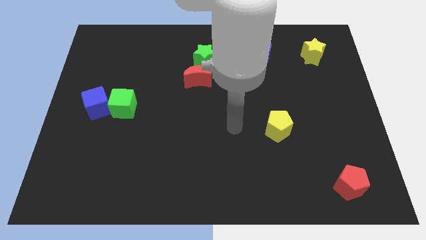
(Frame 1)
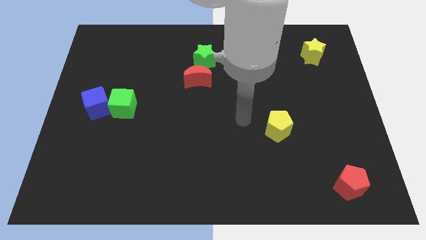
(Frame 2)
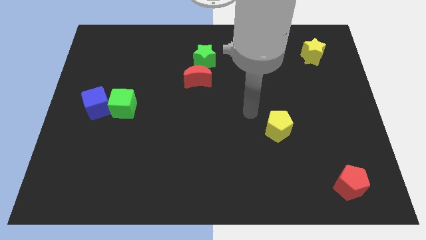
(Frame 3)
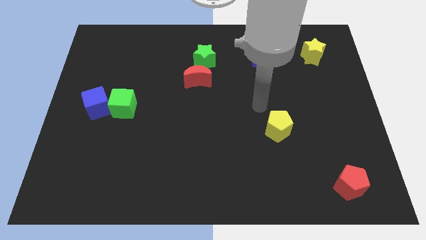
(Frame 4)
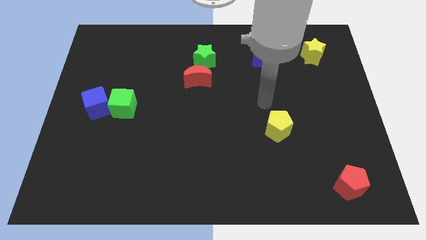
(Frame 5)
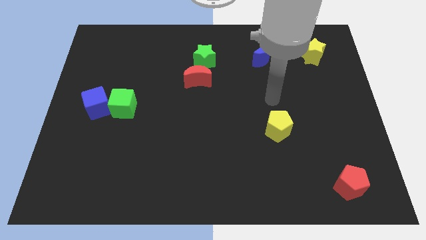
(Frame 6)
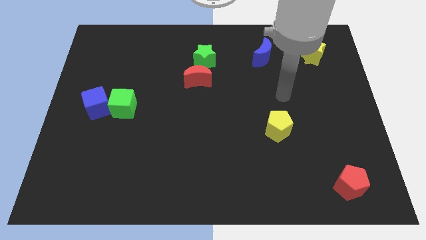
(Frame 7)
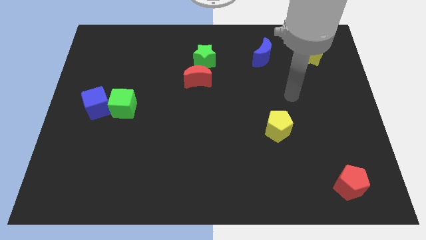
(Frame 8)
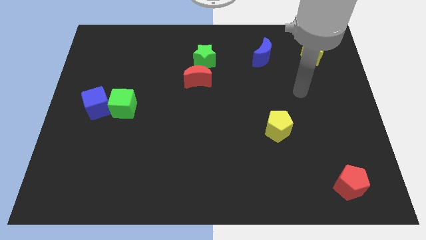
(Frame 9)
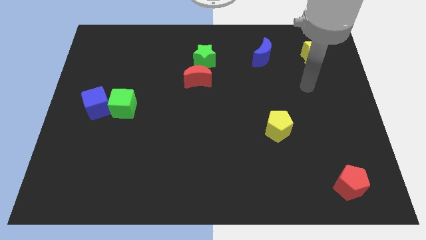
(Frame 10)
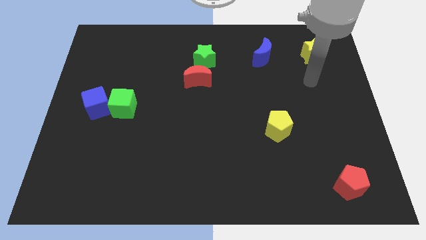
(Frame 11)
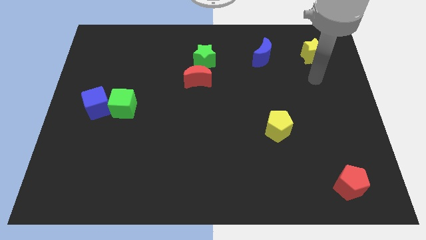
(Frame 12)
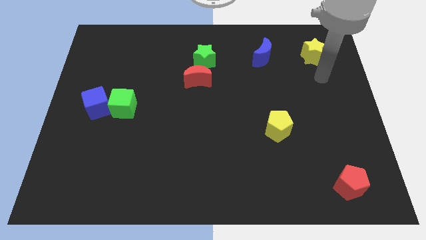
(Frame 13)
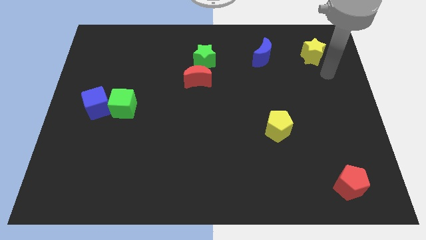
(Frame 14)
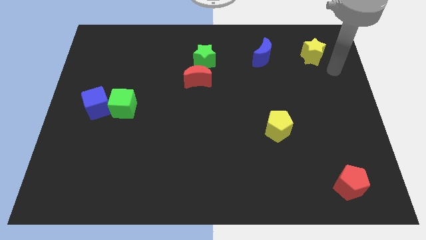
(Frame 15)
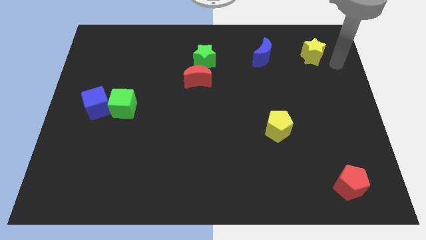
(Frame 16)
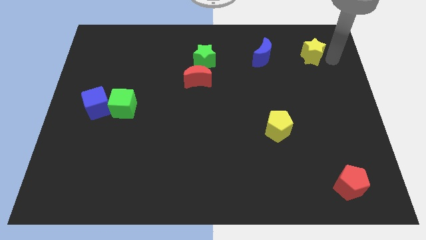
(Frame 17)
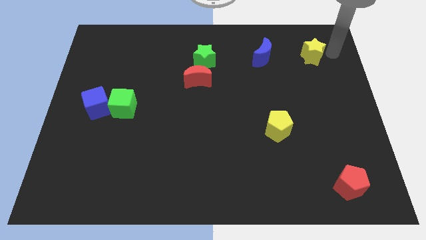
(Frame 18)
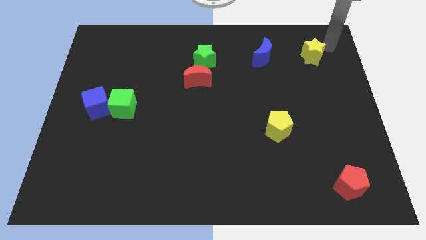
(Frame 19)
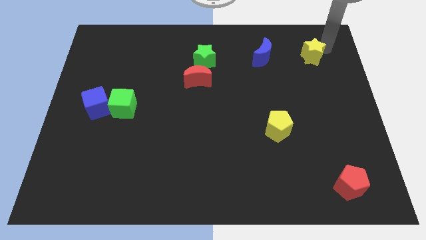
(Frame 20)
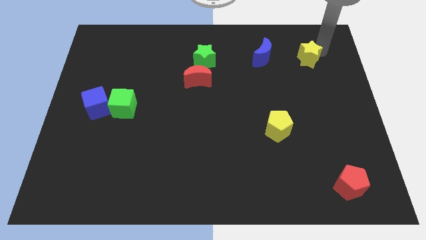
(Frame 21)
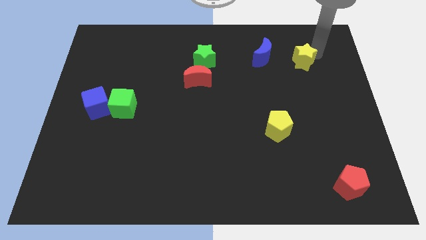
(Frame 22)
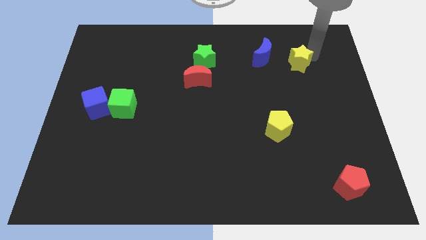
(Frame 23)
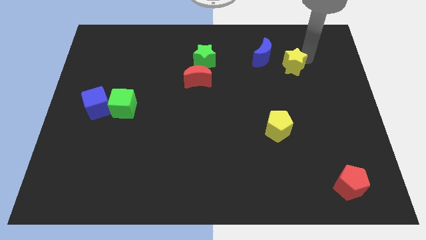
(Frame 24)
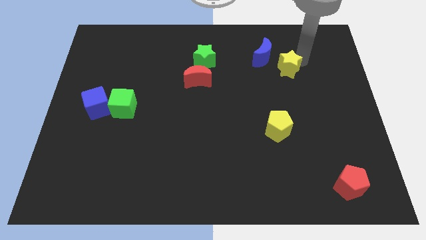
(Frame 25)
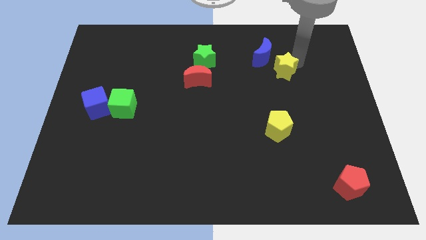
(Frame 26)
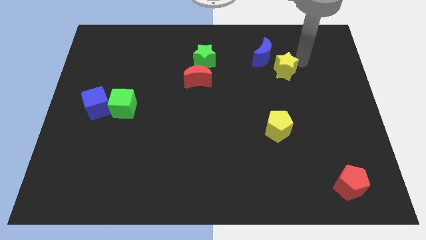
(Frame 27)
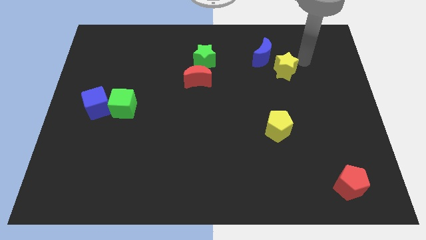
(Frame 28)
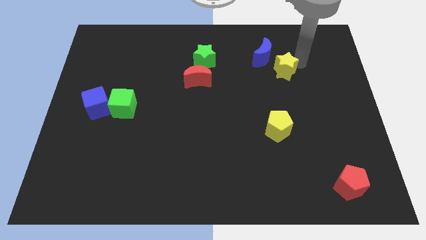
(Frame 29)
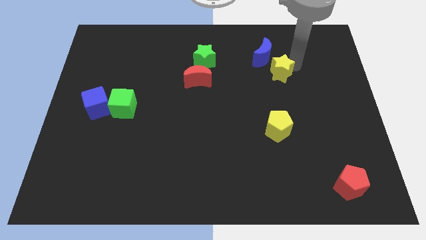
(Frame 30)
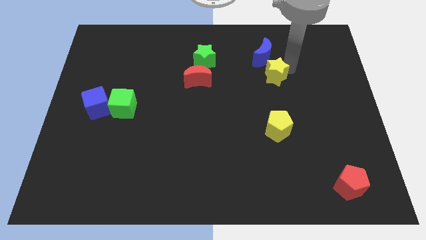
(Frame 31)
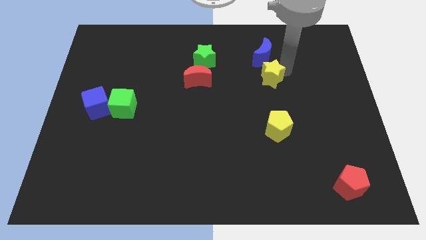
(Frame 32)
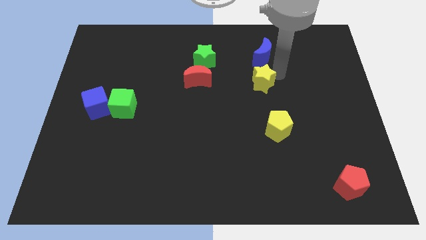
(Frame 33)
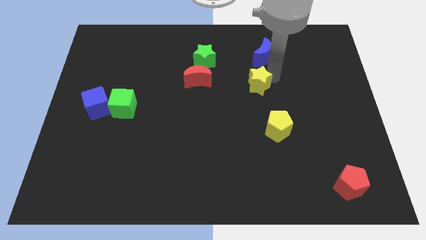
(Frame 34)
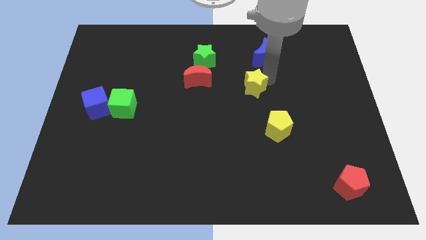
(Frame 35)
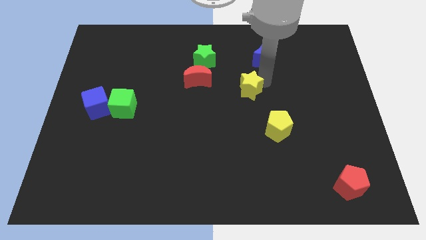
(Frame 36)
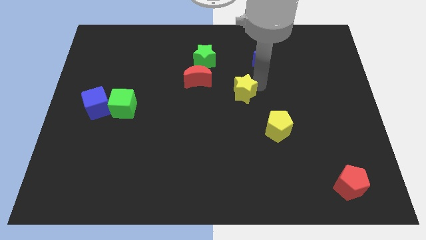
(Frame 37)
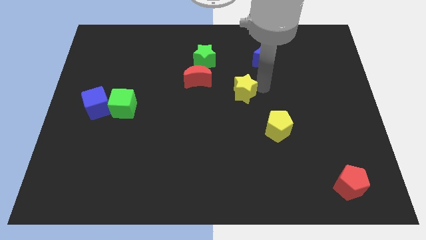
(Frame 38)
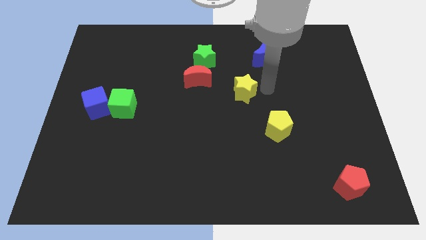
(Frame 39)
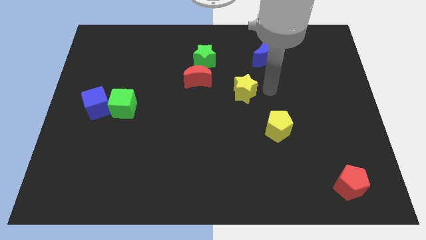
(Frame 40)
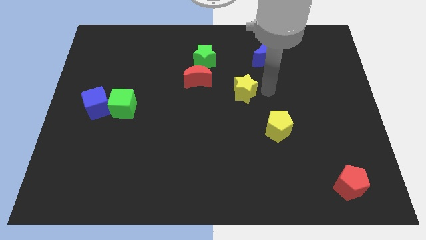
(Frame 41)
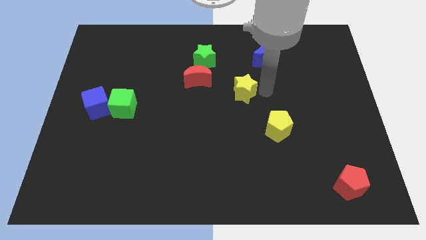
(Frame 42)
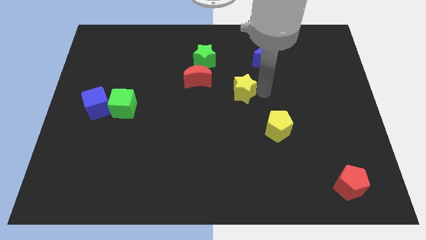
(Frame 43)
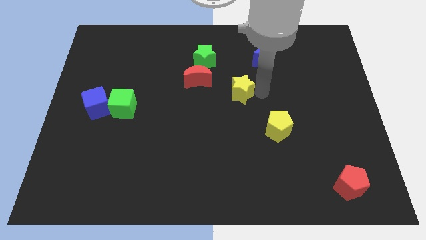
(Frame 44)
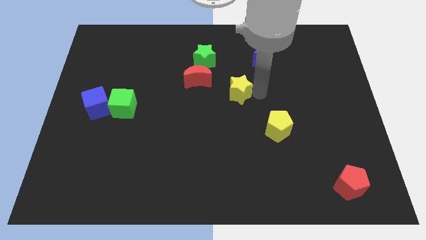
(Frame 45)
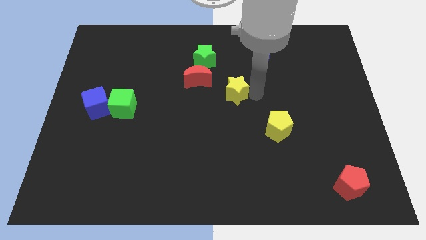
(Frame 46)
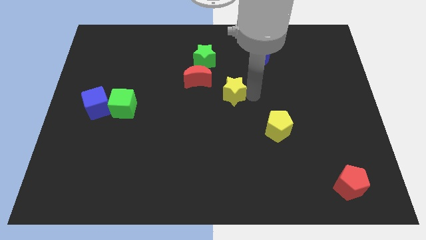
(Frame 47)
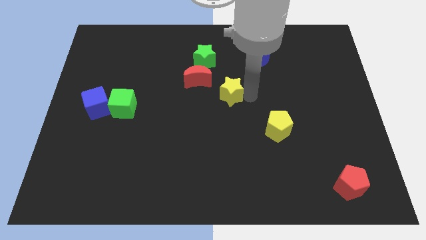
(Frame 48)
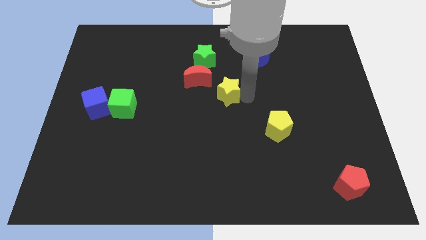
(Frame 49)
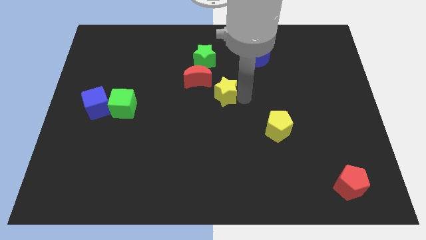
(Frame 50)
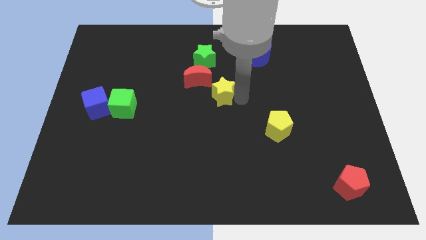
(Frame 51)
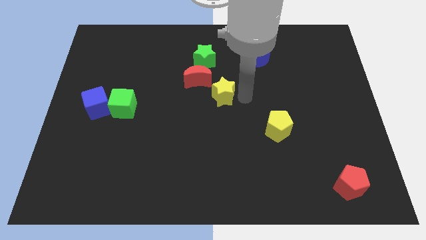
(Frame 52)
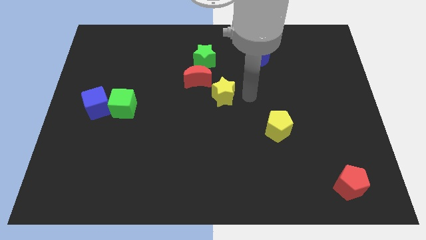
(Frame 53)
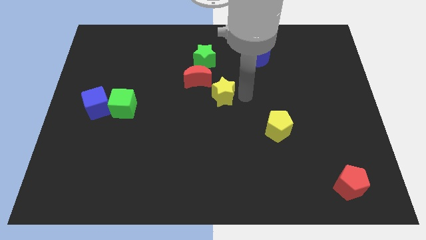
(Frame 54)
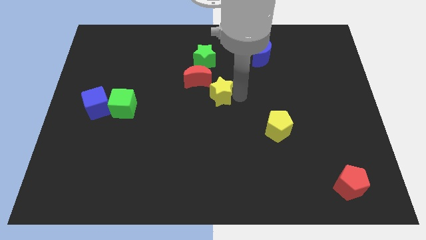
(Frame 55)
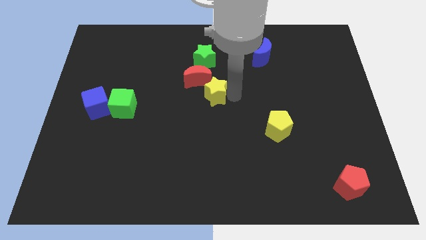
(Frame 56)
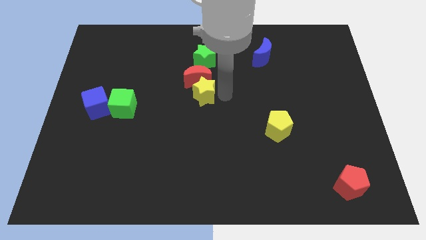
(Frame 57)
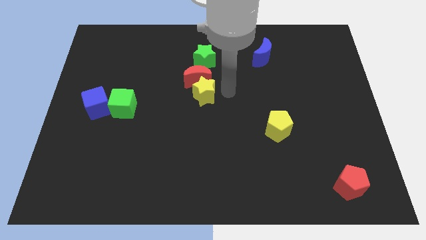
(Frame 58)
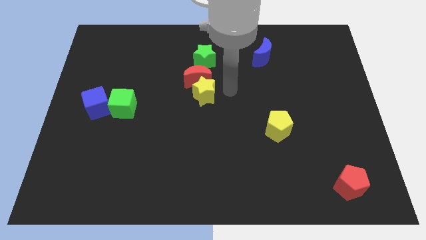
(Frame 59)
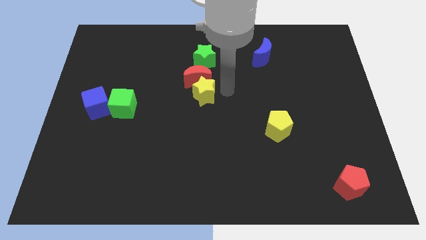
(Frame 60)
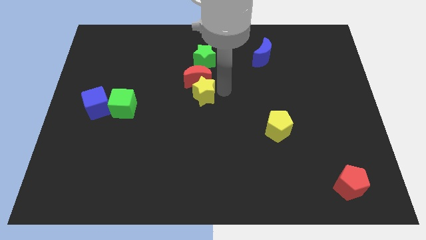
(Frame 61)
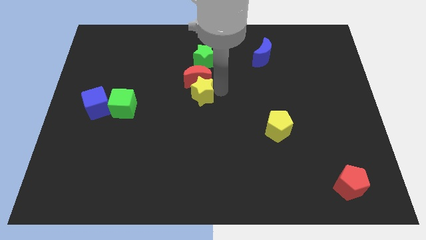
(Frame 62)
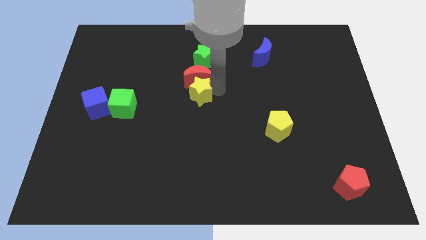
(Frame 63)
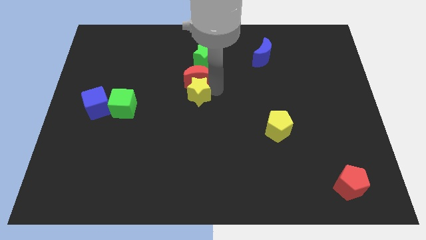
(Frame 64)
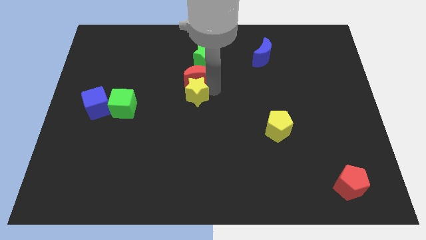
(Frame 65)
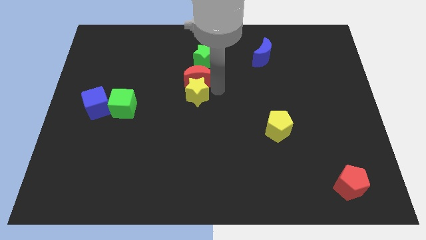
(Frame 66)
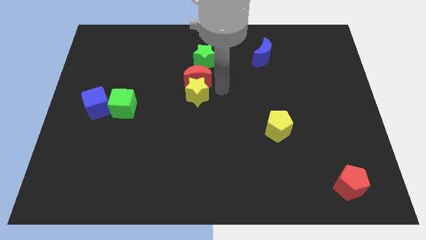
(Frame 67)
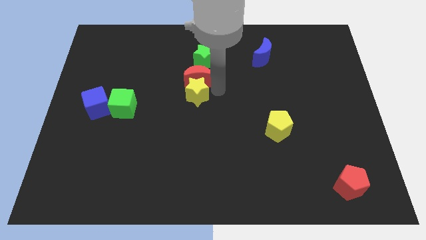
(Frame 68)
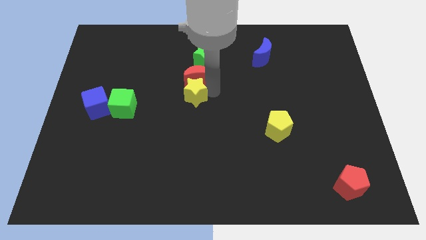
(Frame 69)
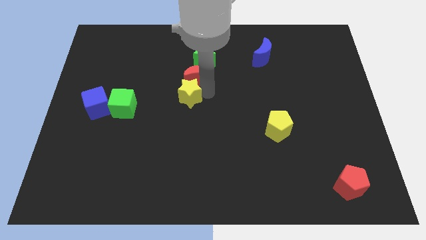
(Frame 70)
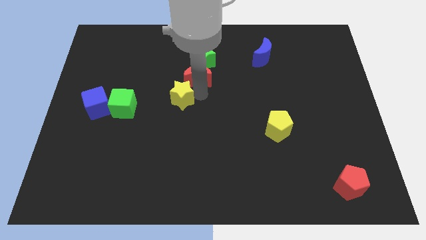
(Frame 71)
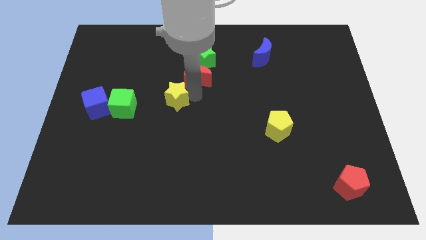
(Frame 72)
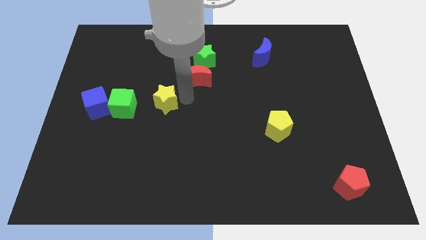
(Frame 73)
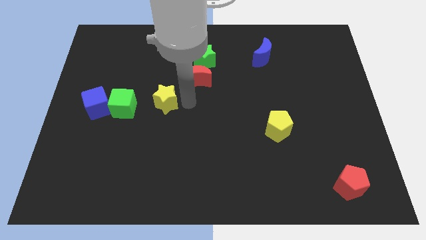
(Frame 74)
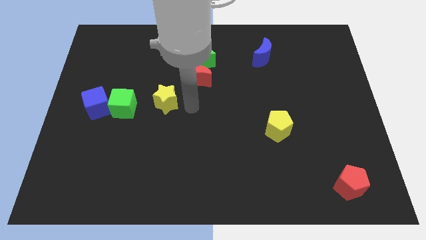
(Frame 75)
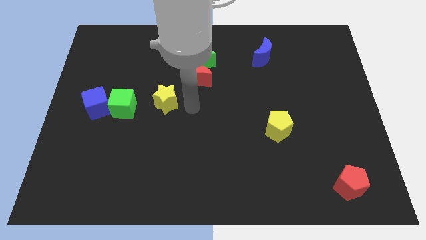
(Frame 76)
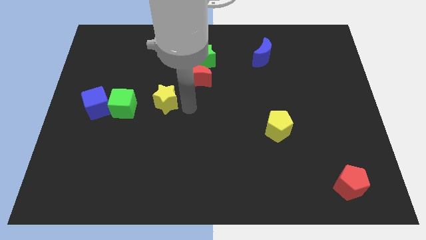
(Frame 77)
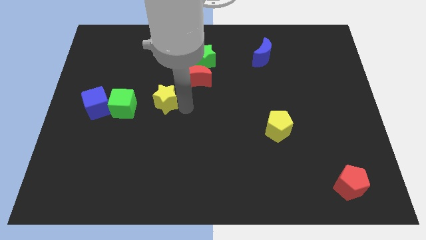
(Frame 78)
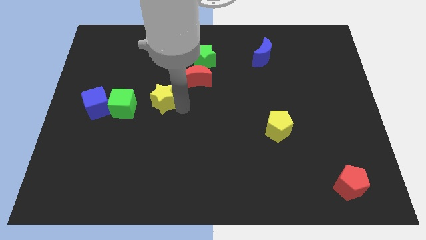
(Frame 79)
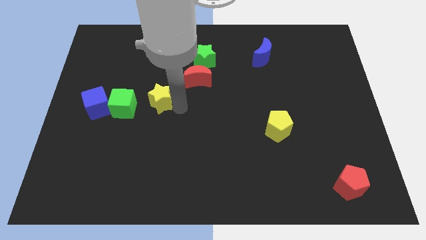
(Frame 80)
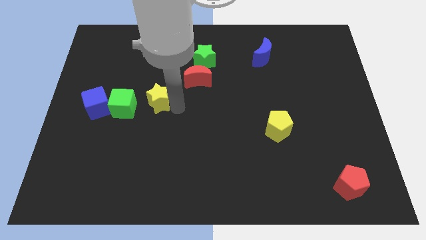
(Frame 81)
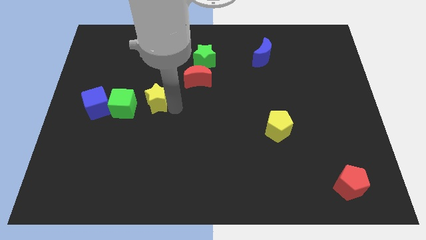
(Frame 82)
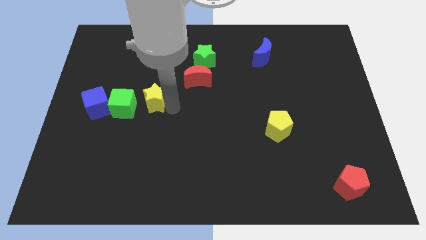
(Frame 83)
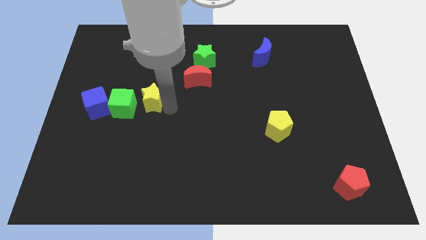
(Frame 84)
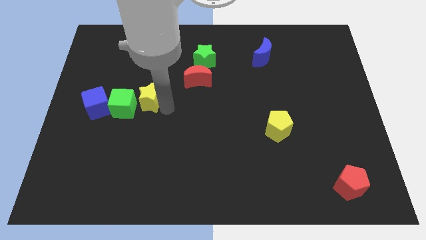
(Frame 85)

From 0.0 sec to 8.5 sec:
push the yellow star to the green cube
